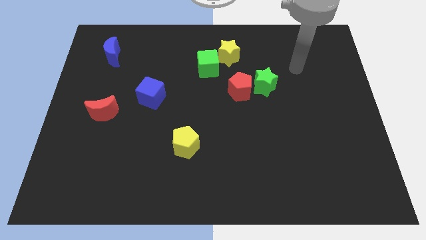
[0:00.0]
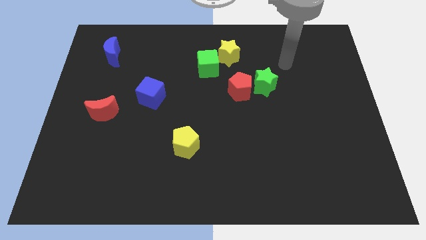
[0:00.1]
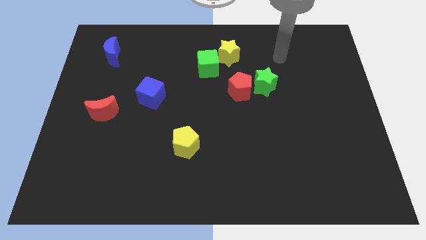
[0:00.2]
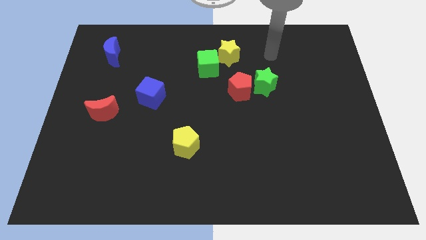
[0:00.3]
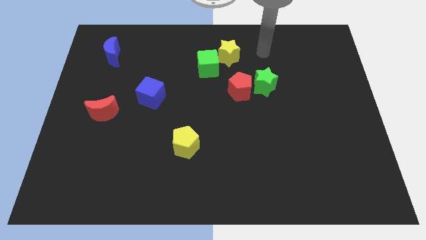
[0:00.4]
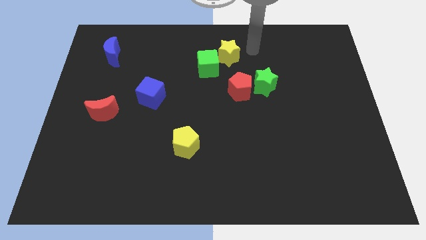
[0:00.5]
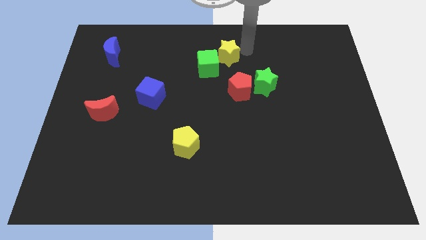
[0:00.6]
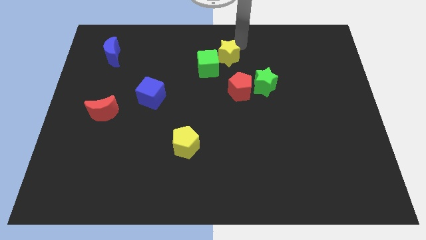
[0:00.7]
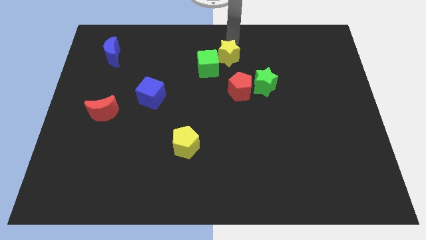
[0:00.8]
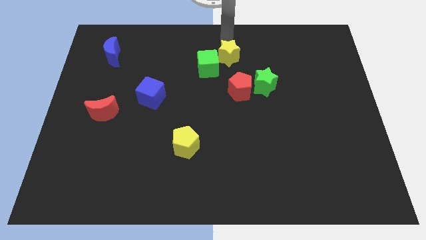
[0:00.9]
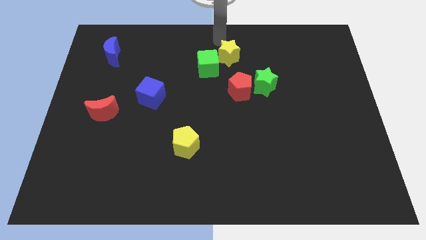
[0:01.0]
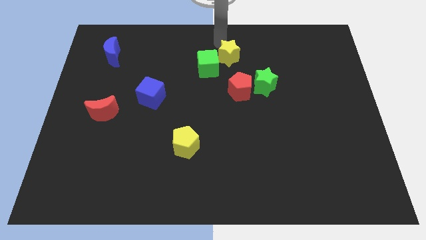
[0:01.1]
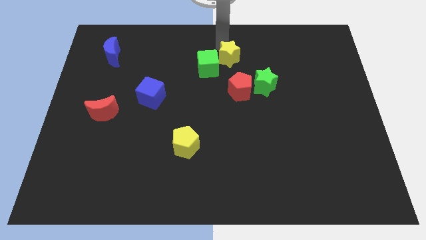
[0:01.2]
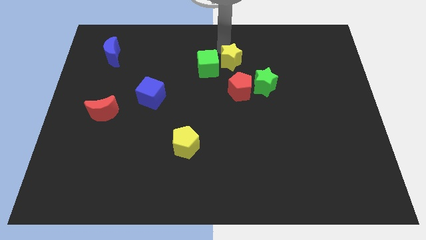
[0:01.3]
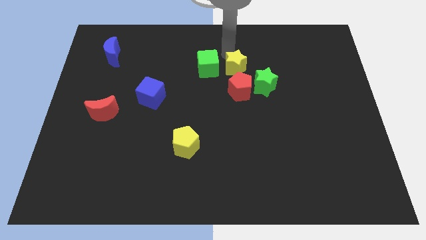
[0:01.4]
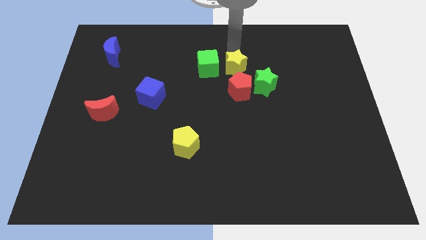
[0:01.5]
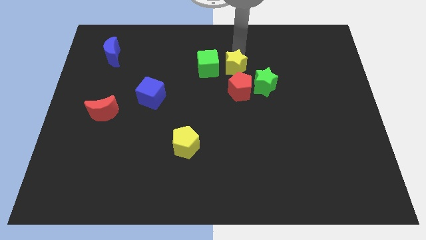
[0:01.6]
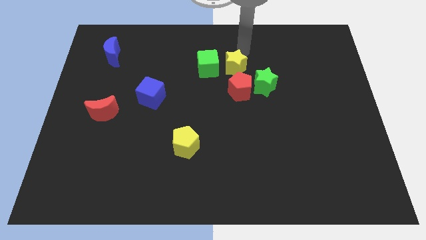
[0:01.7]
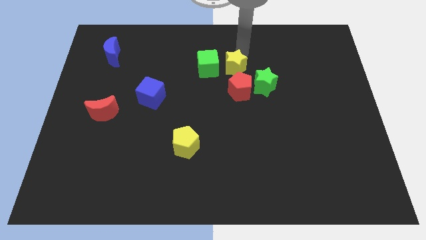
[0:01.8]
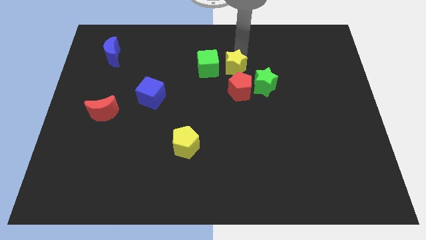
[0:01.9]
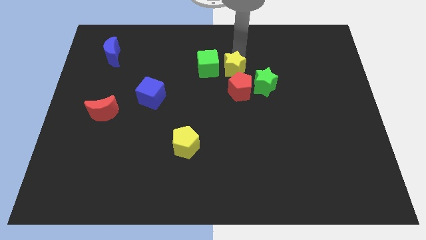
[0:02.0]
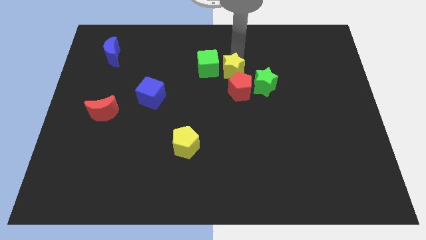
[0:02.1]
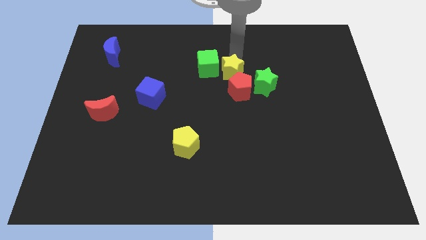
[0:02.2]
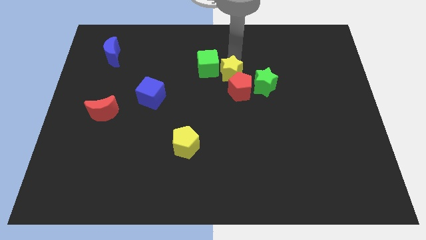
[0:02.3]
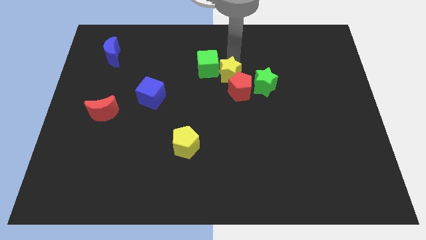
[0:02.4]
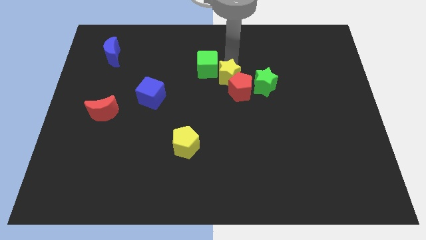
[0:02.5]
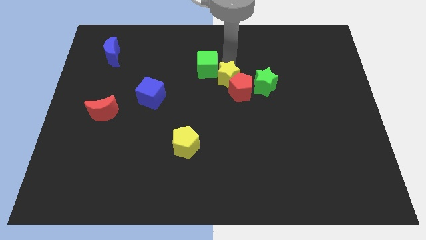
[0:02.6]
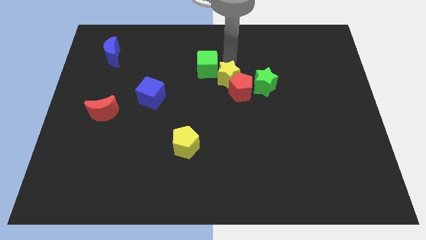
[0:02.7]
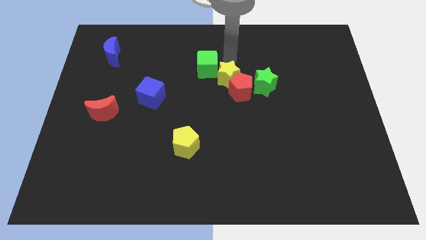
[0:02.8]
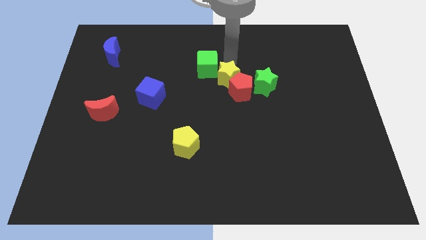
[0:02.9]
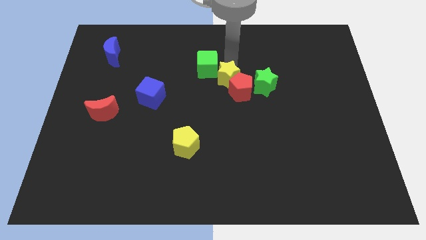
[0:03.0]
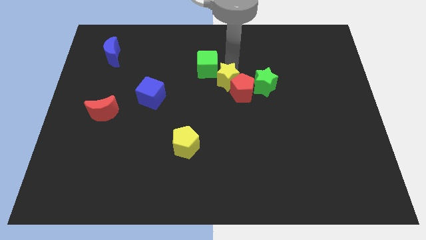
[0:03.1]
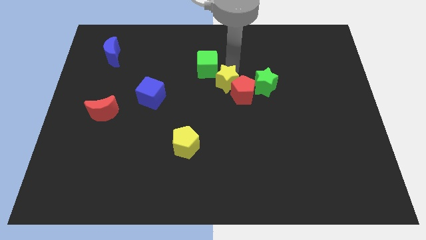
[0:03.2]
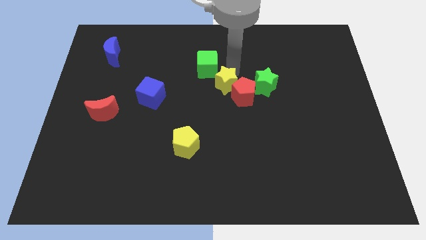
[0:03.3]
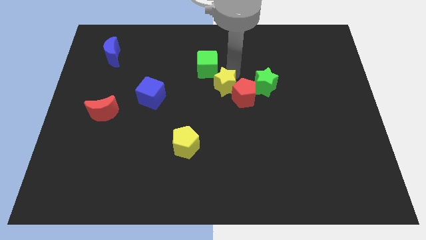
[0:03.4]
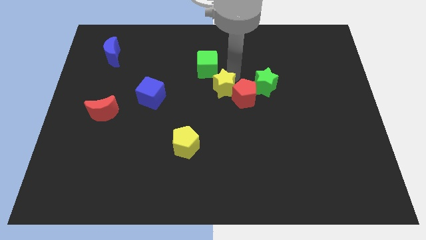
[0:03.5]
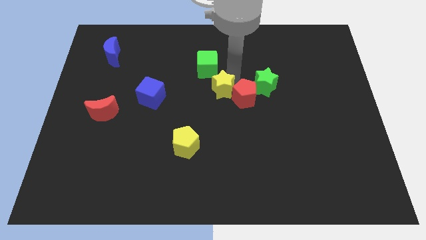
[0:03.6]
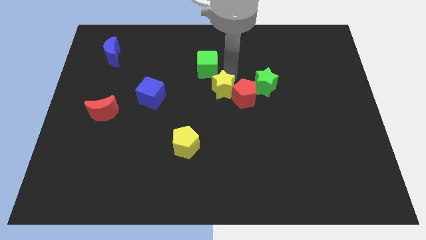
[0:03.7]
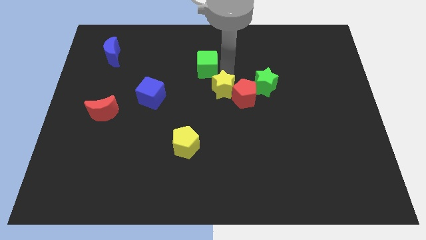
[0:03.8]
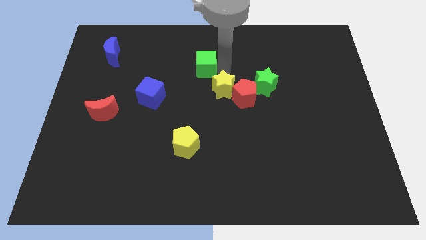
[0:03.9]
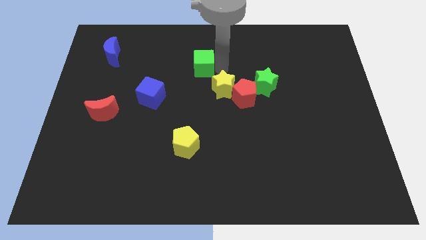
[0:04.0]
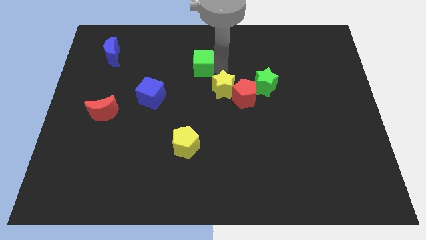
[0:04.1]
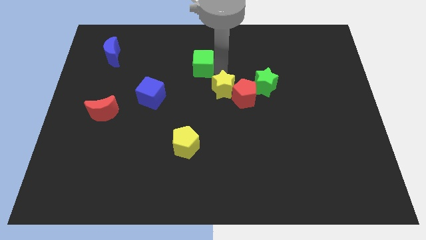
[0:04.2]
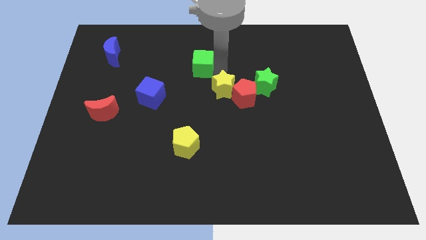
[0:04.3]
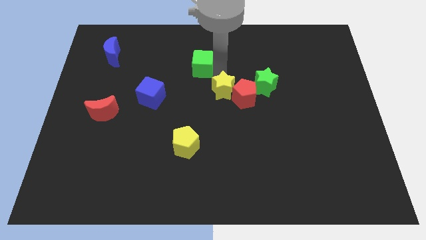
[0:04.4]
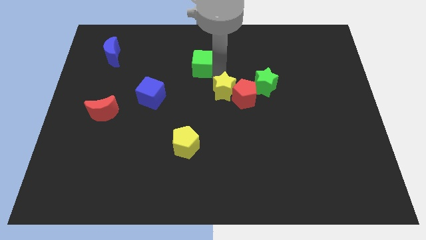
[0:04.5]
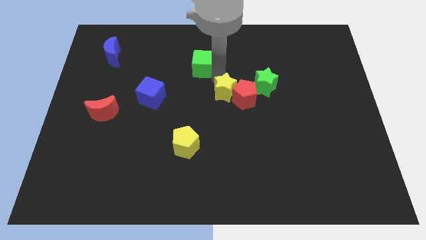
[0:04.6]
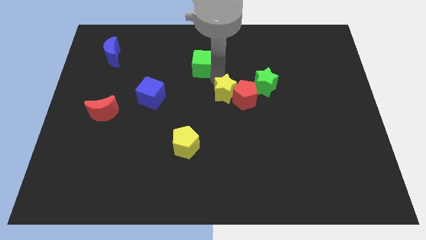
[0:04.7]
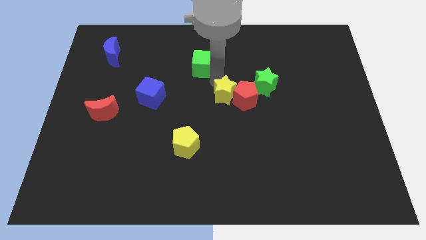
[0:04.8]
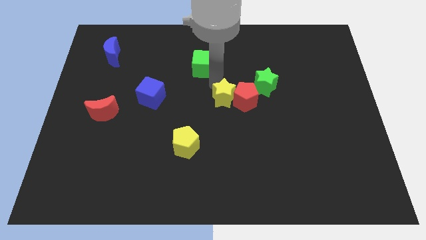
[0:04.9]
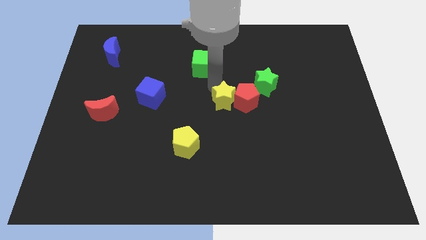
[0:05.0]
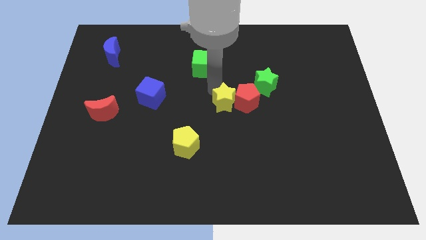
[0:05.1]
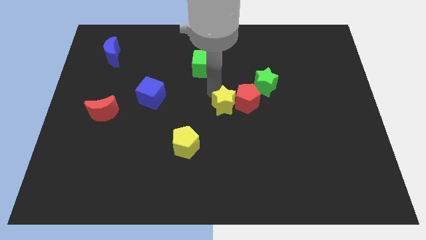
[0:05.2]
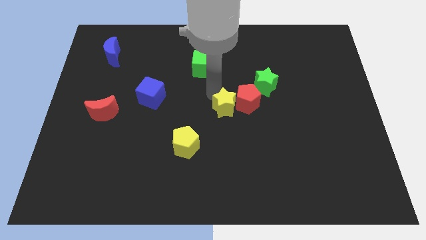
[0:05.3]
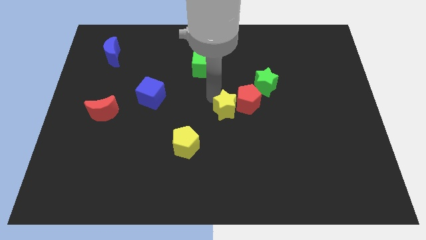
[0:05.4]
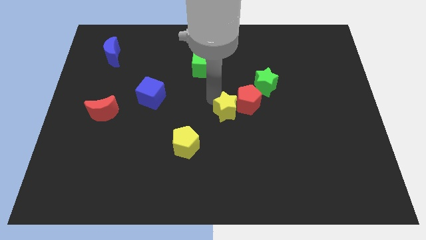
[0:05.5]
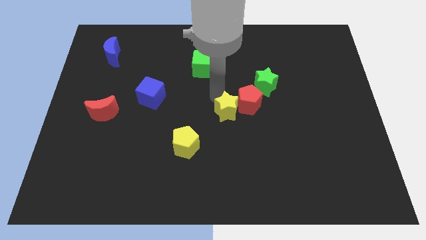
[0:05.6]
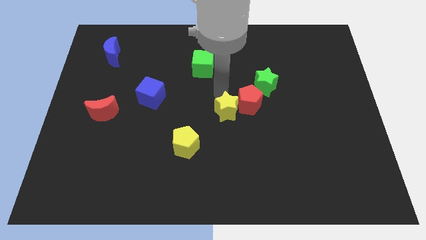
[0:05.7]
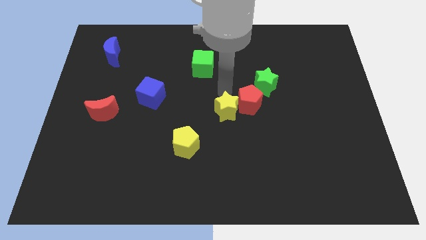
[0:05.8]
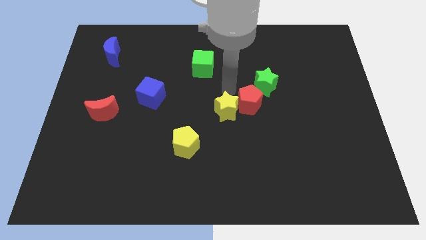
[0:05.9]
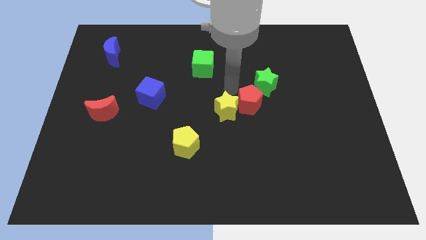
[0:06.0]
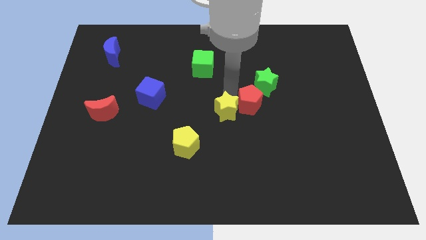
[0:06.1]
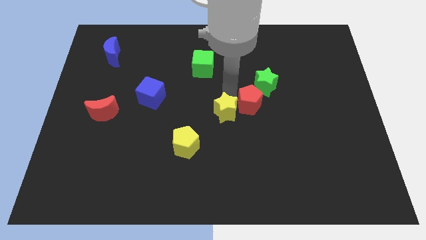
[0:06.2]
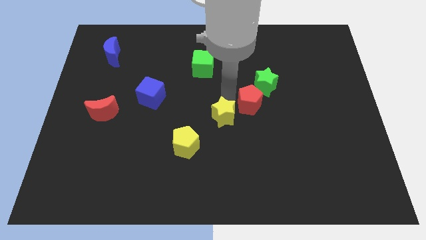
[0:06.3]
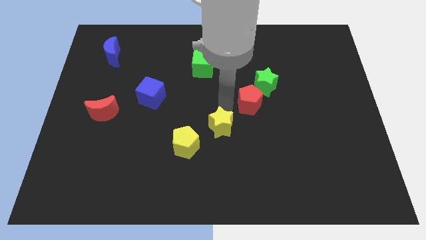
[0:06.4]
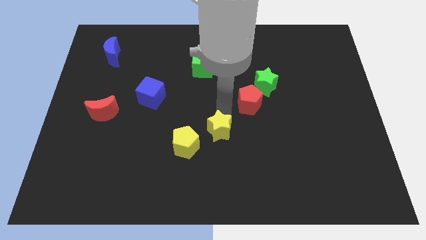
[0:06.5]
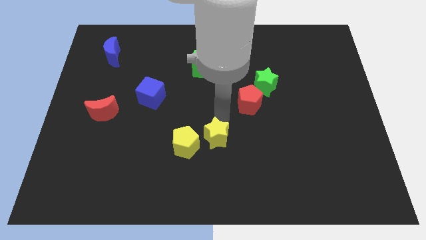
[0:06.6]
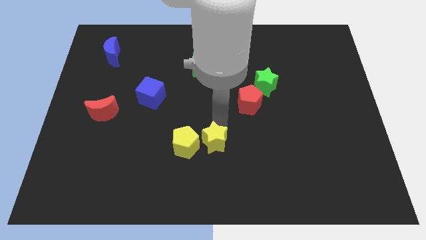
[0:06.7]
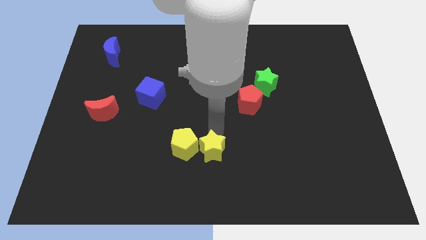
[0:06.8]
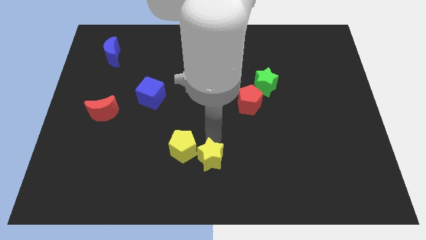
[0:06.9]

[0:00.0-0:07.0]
move the yellow star to the bottom side
